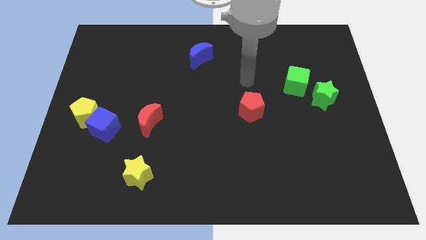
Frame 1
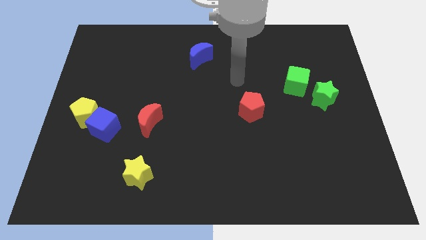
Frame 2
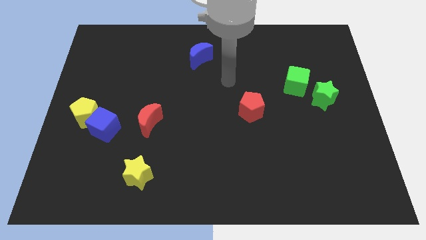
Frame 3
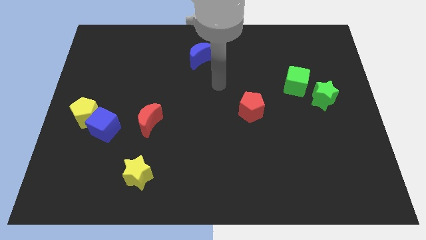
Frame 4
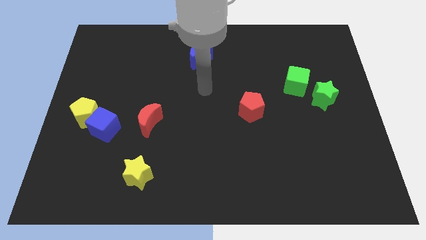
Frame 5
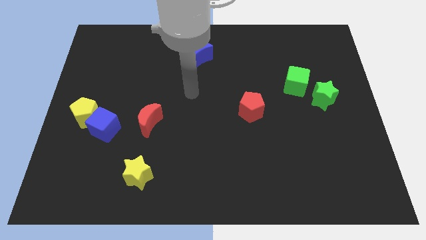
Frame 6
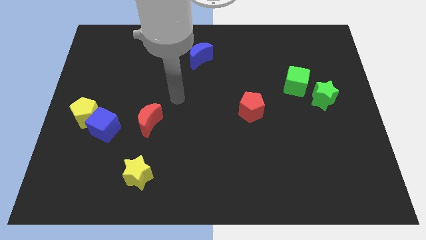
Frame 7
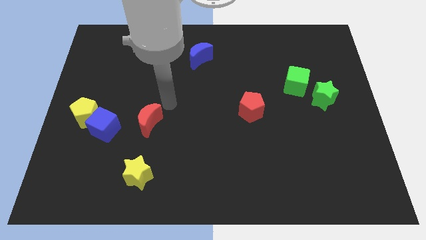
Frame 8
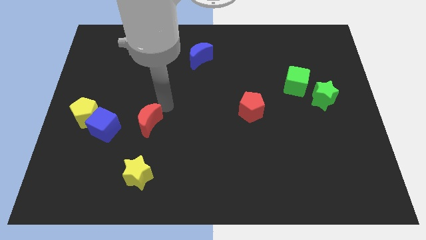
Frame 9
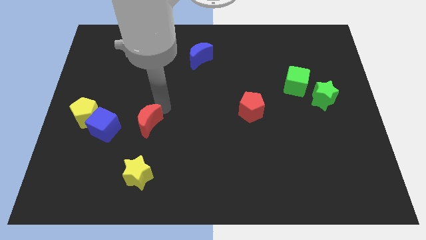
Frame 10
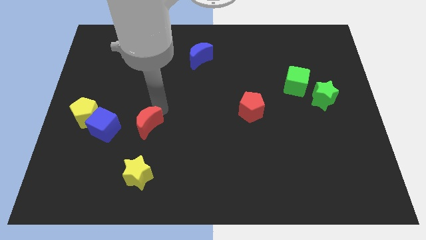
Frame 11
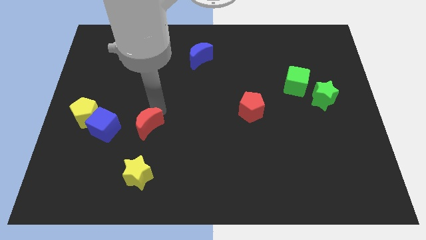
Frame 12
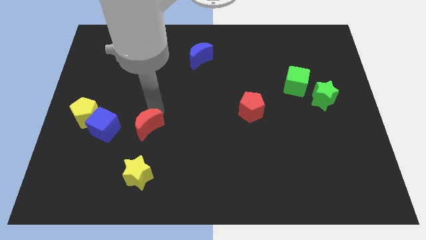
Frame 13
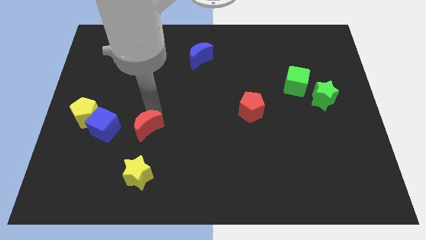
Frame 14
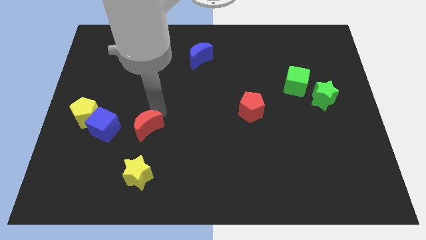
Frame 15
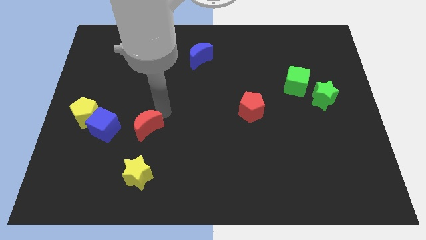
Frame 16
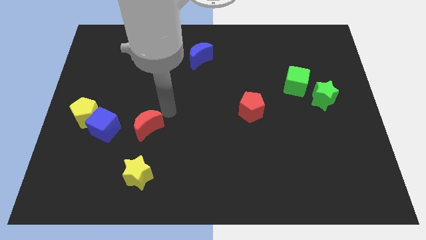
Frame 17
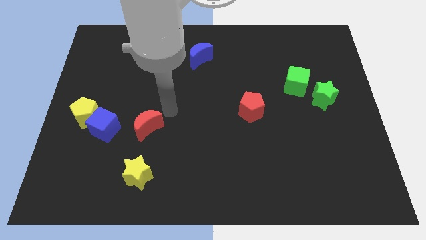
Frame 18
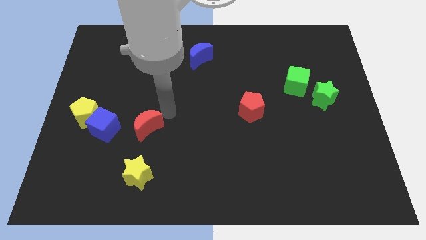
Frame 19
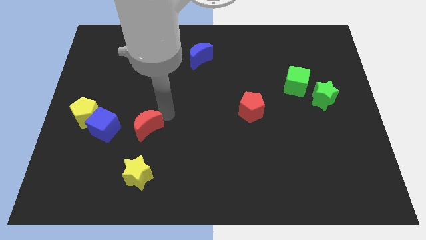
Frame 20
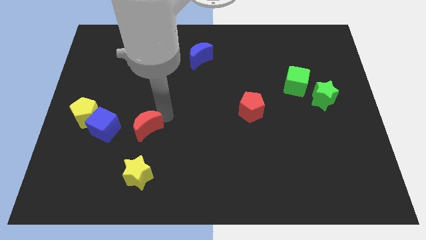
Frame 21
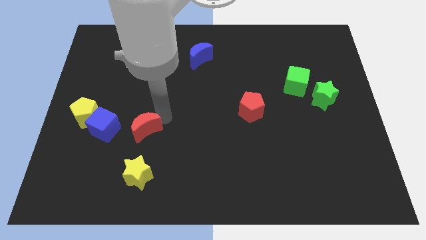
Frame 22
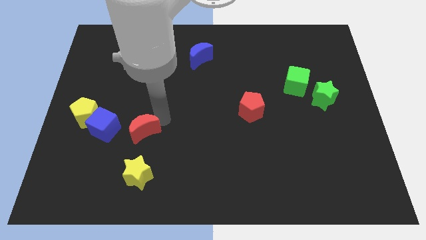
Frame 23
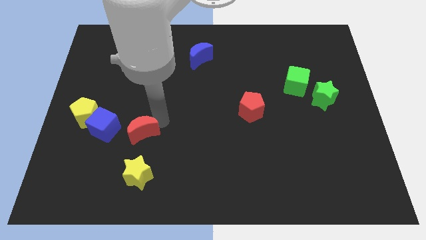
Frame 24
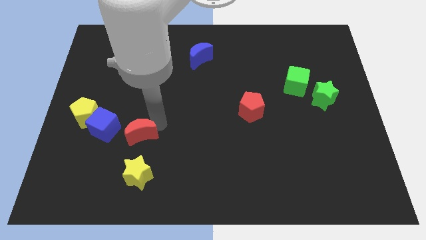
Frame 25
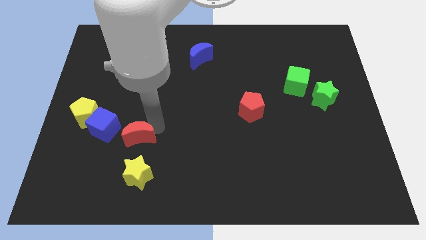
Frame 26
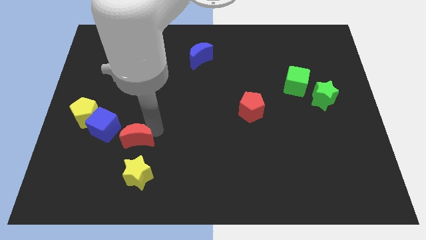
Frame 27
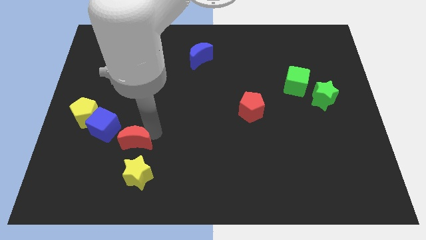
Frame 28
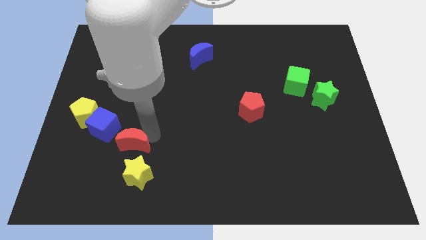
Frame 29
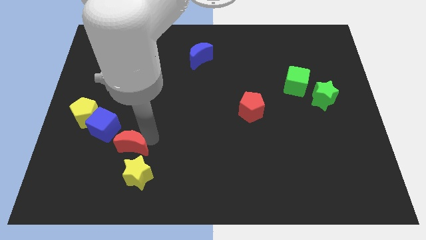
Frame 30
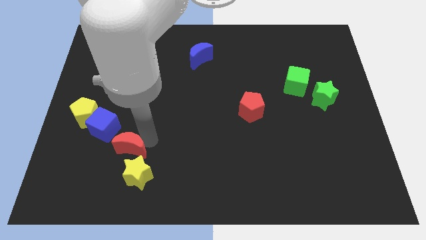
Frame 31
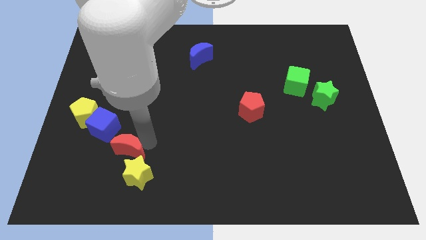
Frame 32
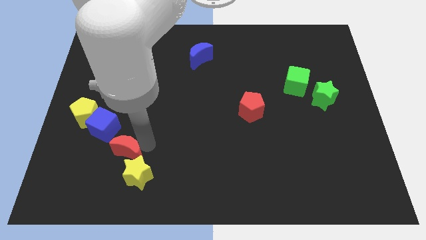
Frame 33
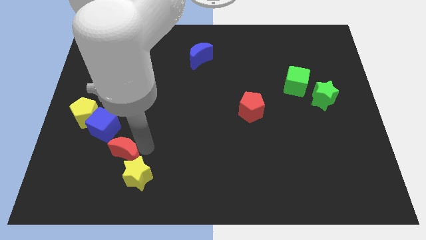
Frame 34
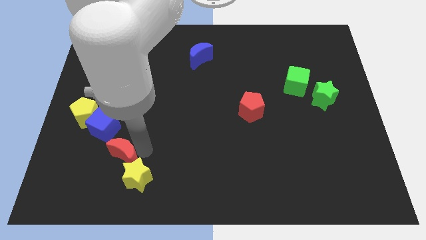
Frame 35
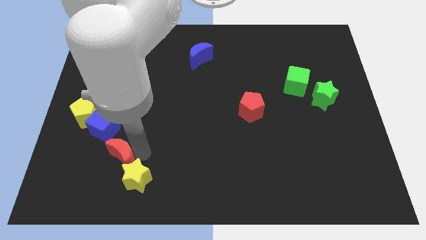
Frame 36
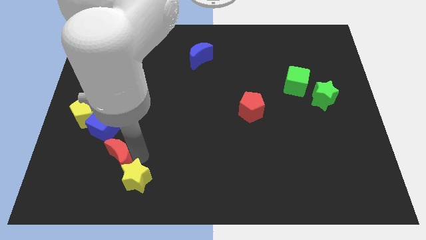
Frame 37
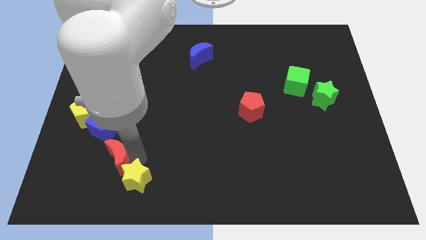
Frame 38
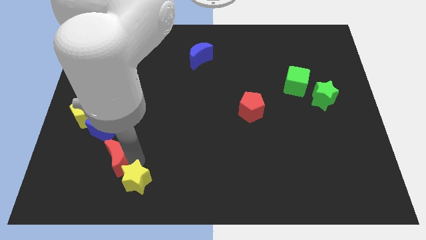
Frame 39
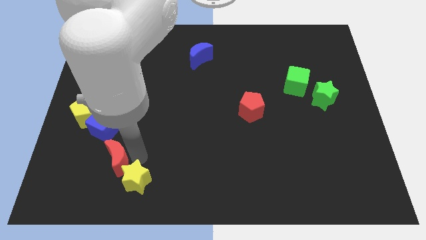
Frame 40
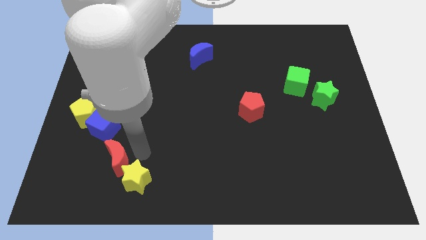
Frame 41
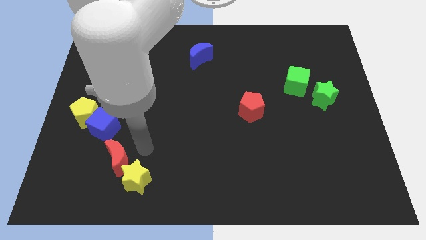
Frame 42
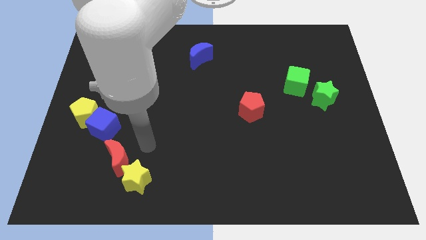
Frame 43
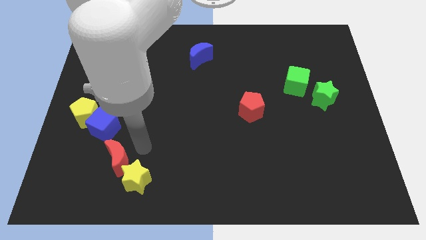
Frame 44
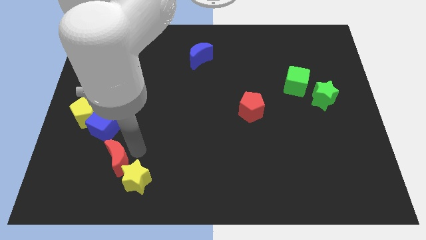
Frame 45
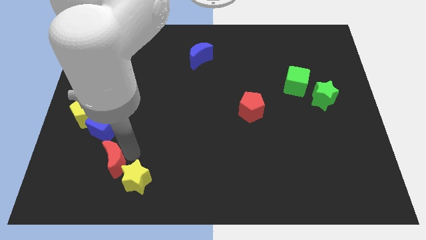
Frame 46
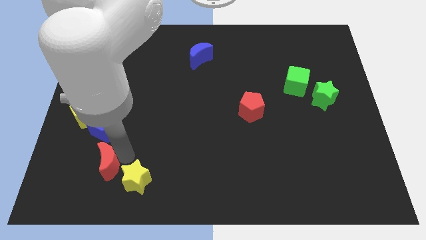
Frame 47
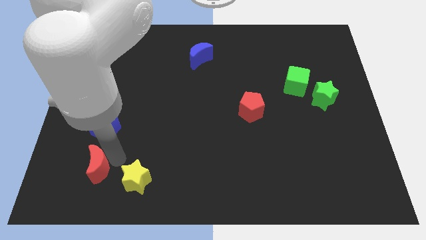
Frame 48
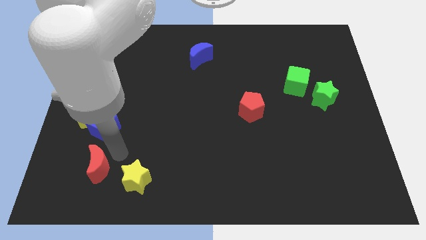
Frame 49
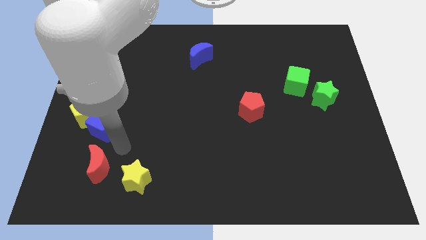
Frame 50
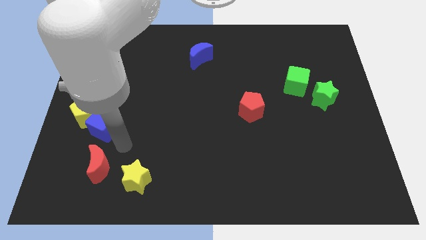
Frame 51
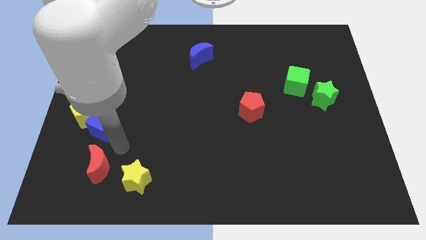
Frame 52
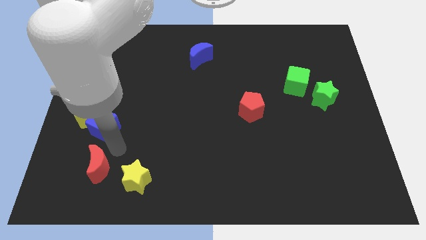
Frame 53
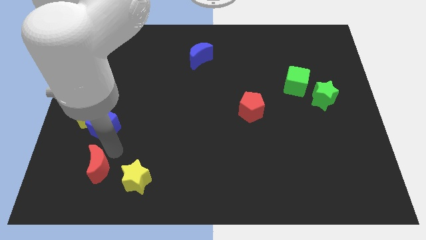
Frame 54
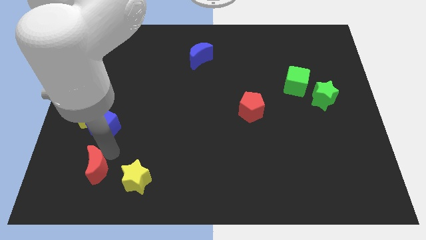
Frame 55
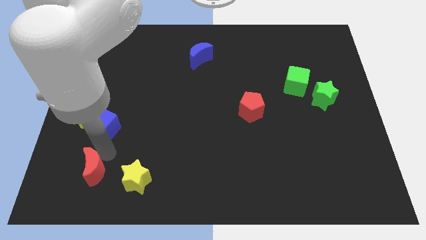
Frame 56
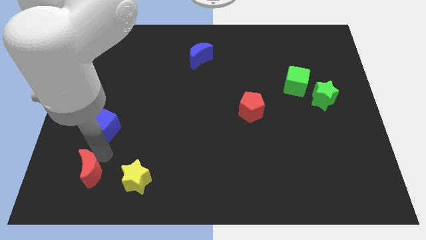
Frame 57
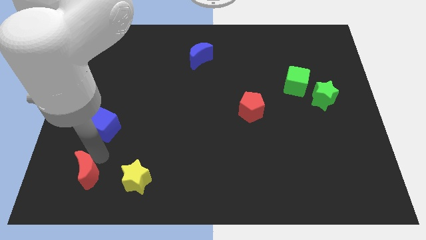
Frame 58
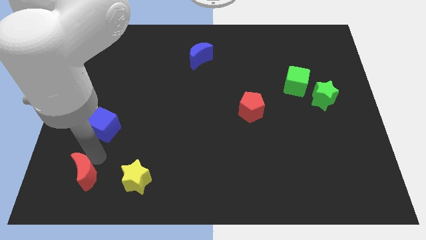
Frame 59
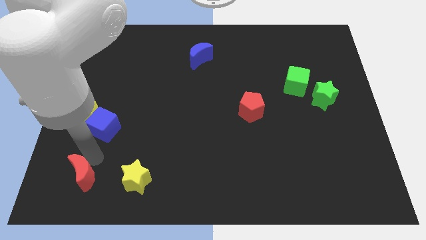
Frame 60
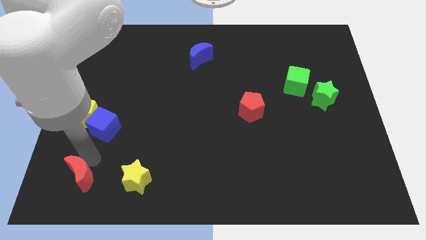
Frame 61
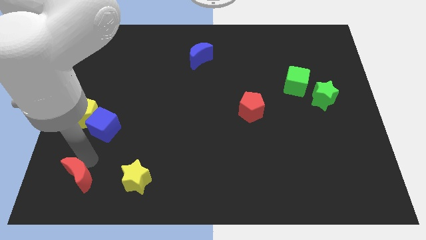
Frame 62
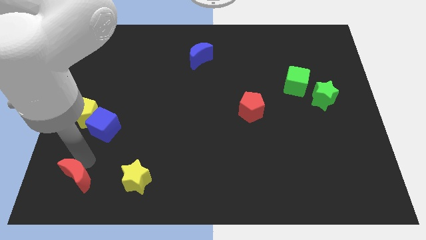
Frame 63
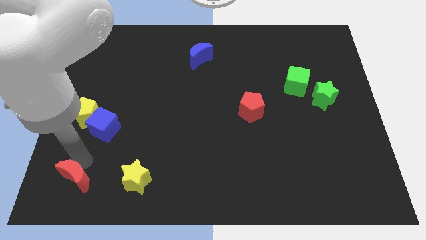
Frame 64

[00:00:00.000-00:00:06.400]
slide the red moon to the lower left corner
